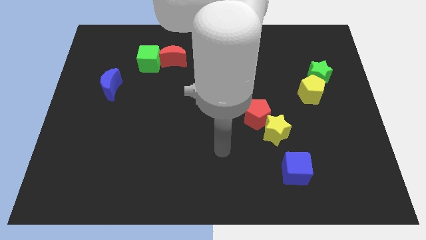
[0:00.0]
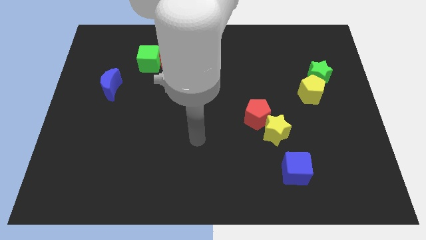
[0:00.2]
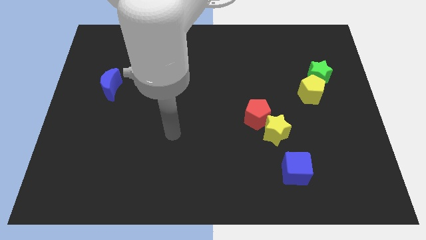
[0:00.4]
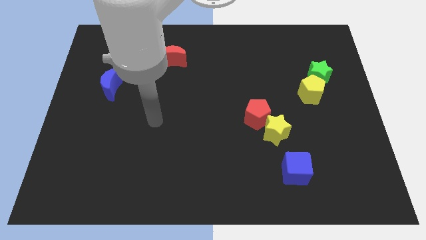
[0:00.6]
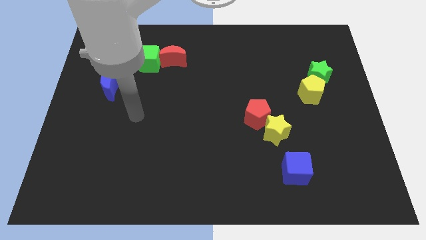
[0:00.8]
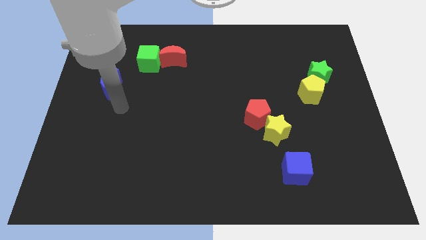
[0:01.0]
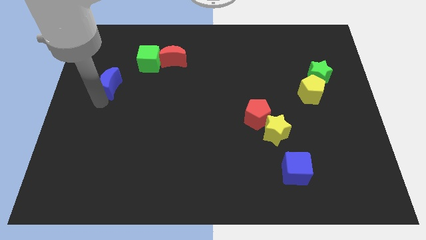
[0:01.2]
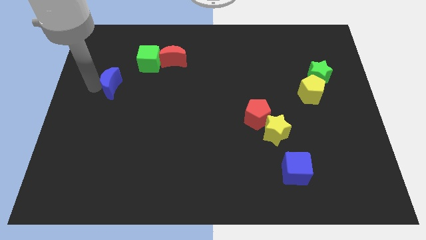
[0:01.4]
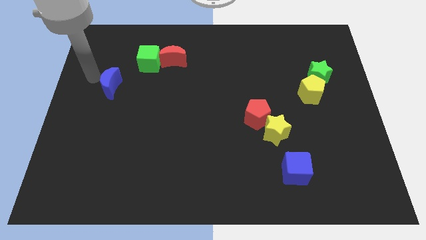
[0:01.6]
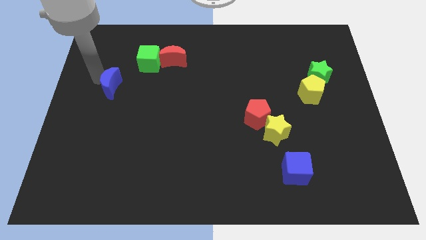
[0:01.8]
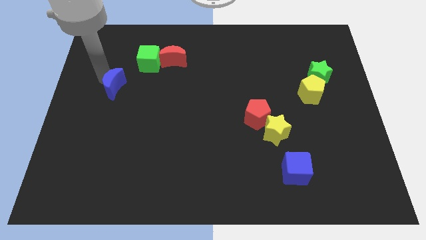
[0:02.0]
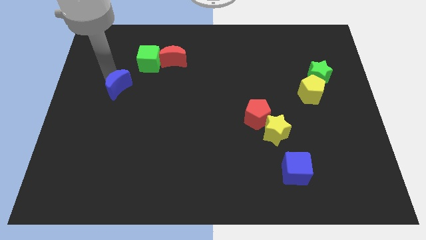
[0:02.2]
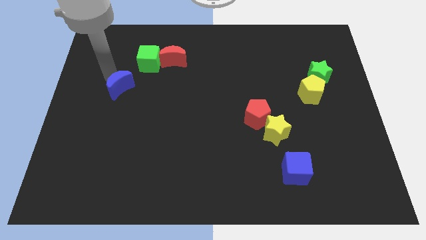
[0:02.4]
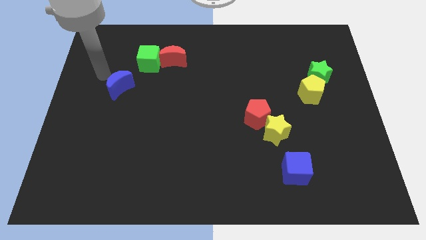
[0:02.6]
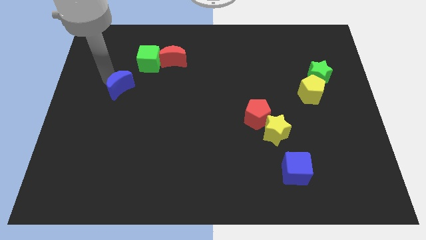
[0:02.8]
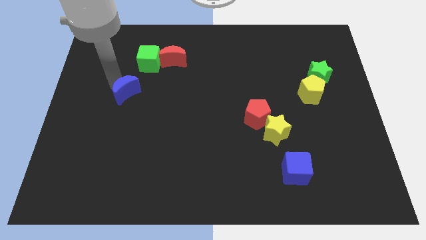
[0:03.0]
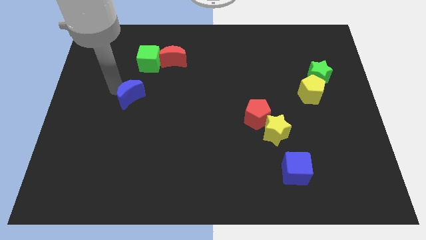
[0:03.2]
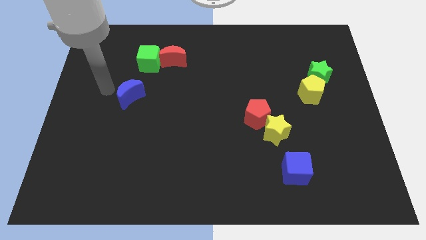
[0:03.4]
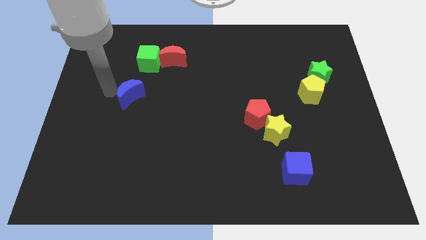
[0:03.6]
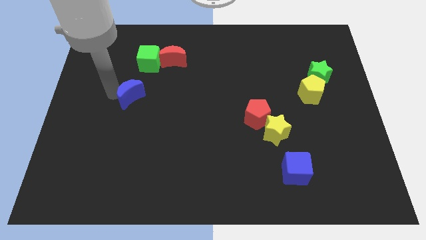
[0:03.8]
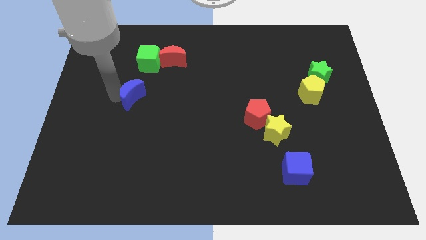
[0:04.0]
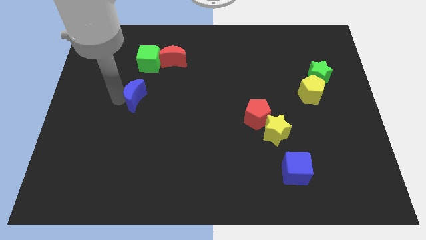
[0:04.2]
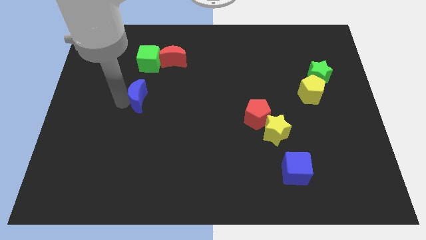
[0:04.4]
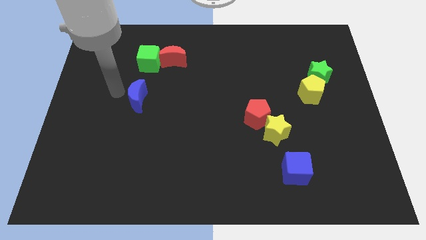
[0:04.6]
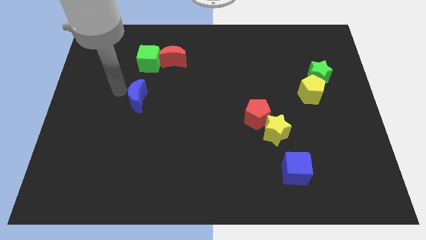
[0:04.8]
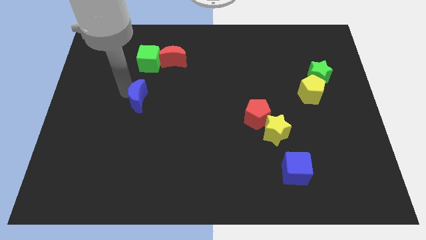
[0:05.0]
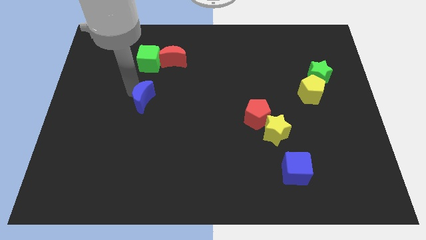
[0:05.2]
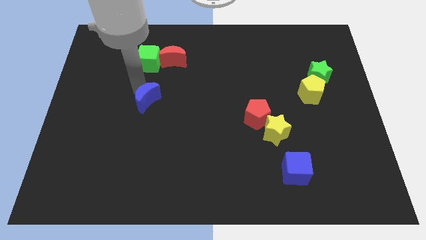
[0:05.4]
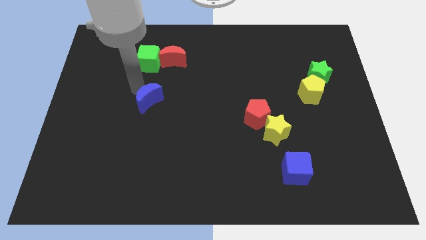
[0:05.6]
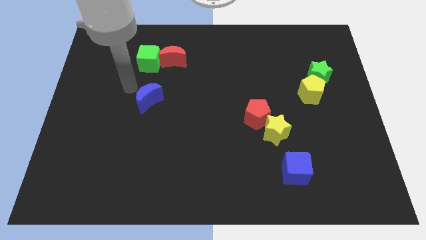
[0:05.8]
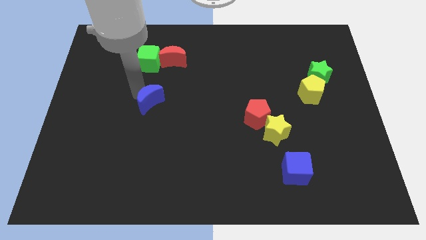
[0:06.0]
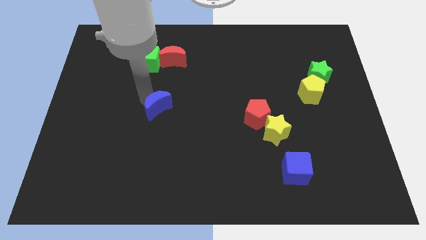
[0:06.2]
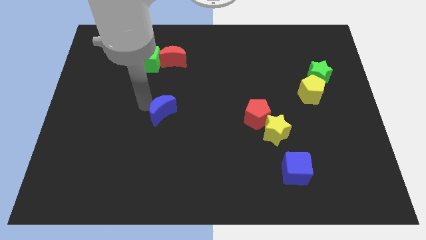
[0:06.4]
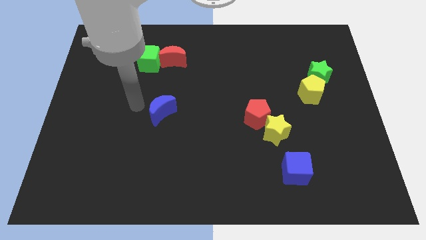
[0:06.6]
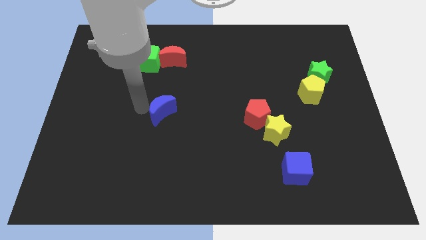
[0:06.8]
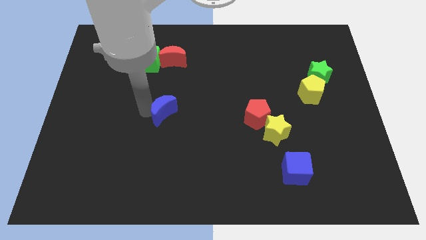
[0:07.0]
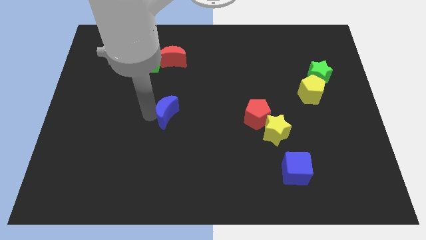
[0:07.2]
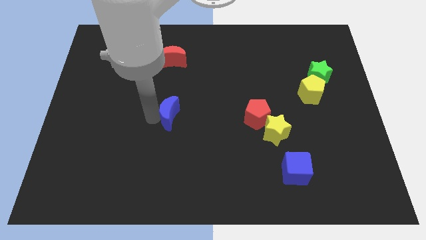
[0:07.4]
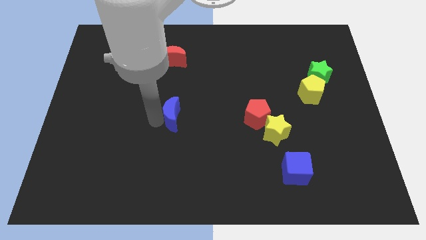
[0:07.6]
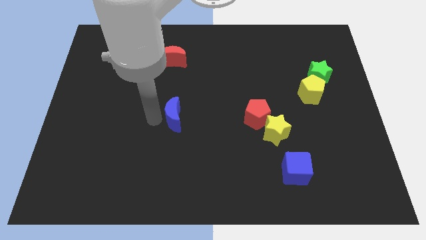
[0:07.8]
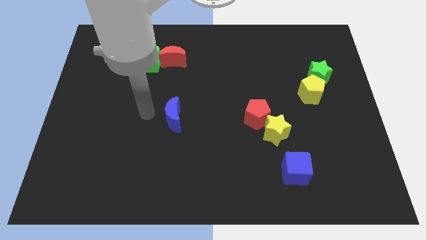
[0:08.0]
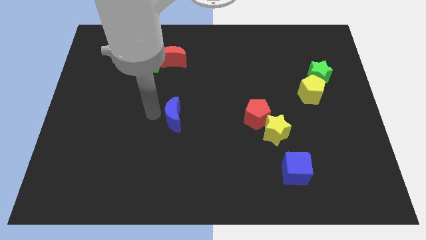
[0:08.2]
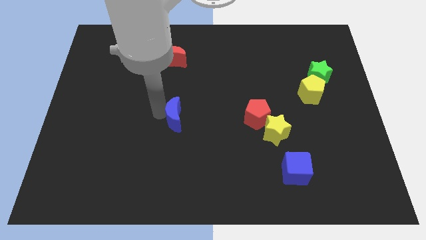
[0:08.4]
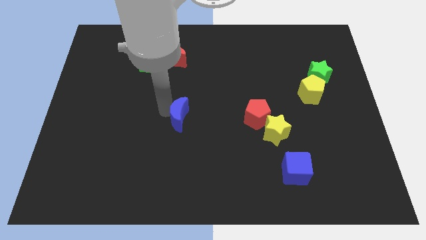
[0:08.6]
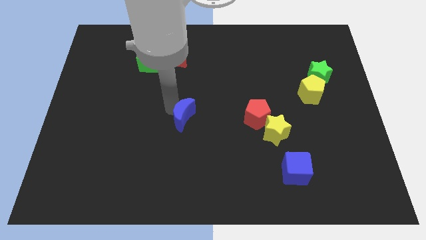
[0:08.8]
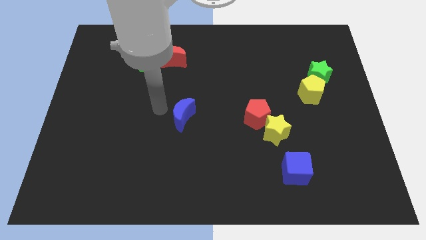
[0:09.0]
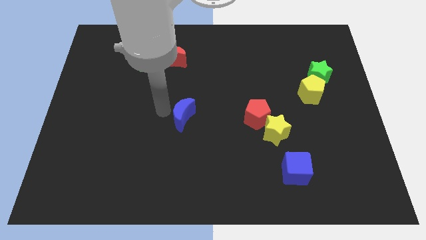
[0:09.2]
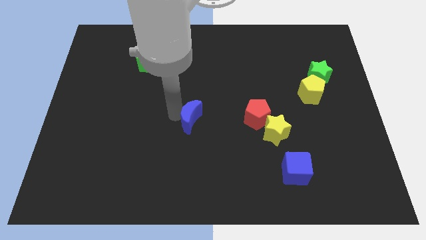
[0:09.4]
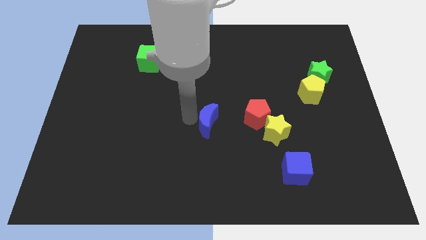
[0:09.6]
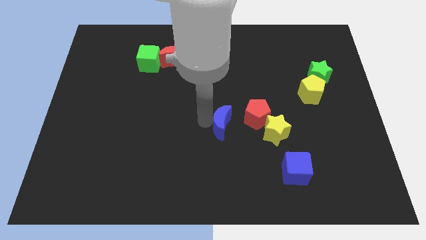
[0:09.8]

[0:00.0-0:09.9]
push the blue moon to the bottom left side of the red pentagon

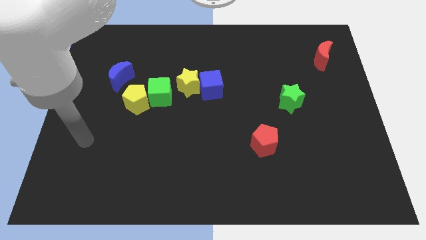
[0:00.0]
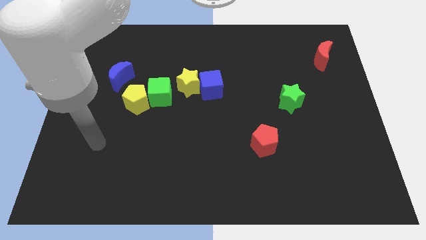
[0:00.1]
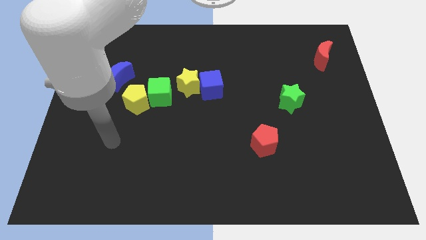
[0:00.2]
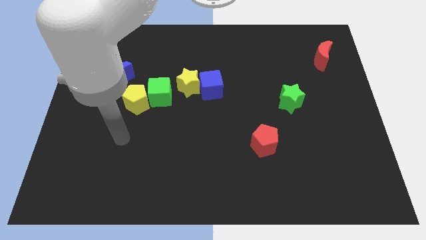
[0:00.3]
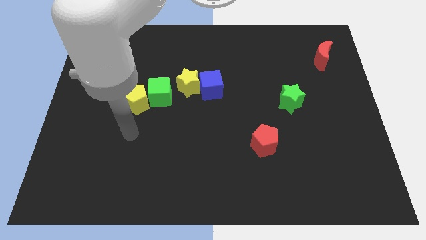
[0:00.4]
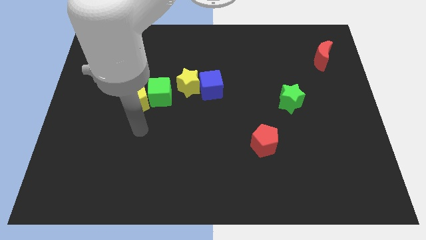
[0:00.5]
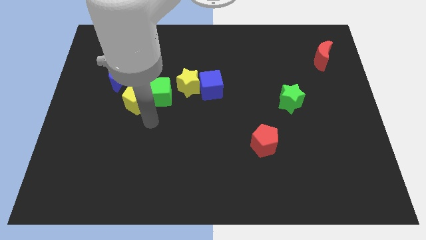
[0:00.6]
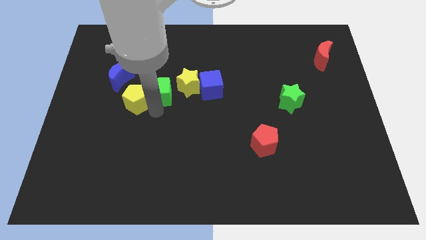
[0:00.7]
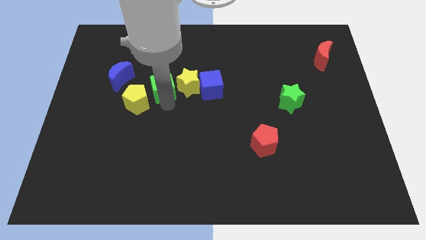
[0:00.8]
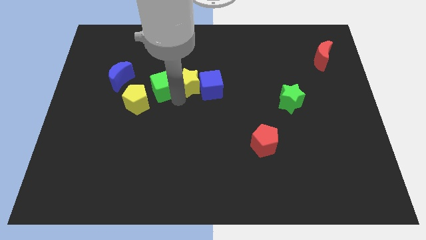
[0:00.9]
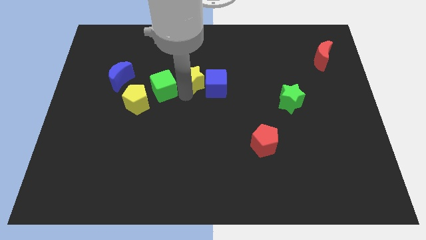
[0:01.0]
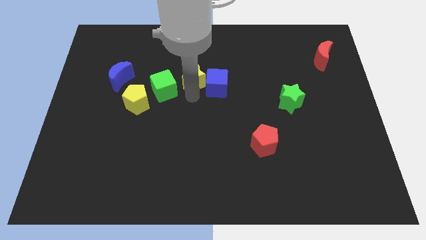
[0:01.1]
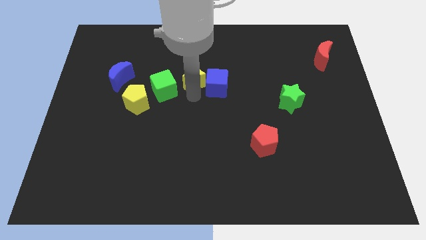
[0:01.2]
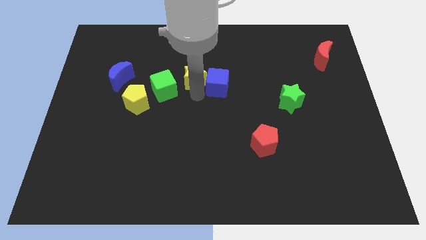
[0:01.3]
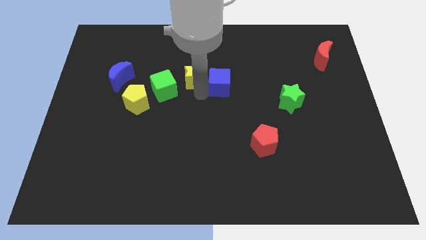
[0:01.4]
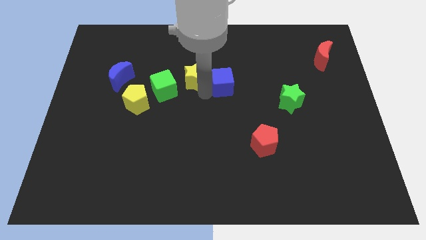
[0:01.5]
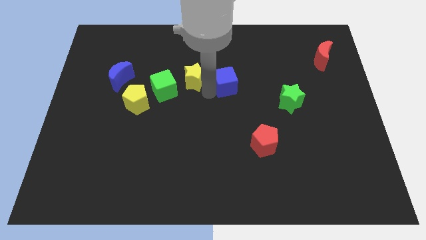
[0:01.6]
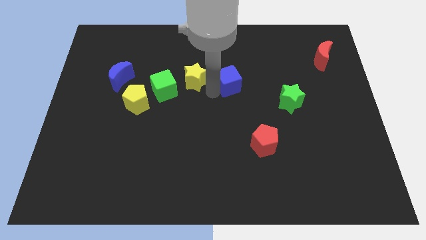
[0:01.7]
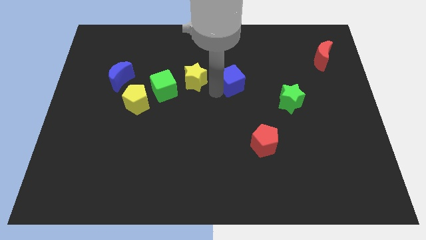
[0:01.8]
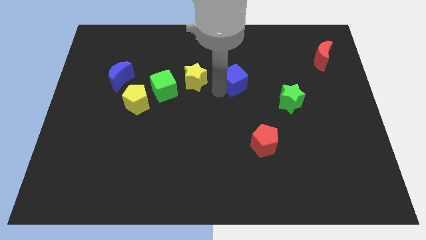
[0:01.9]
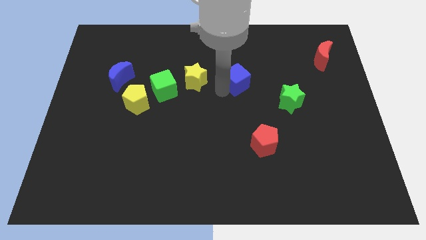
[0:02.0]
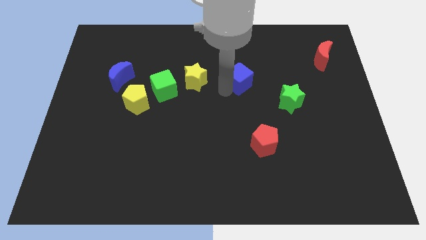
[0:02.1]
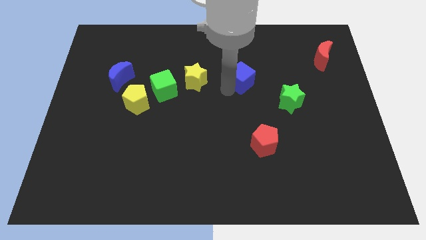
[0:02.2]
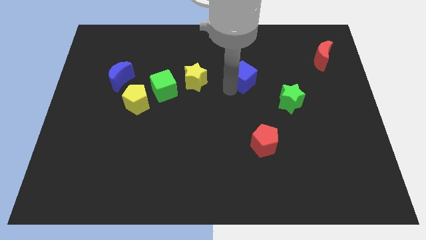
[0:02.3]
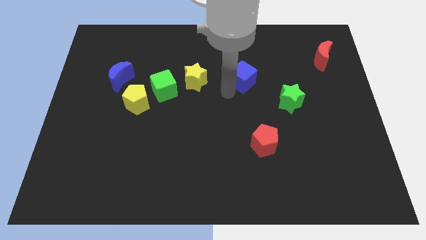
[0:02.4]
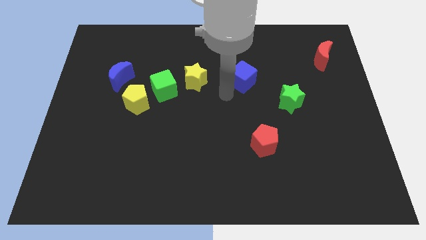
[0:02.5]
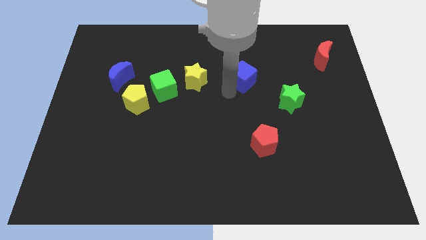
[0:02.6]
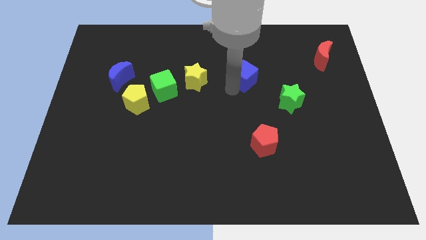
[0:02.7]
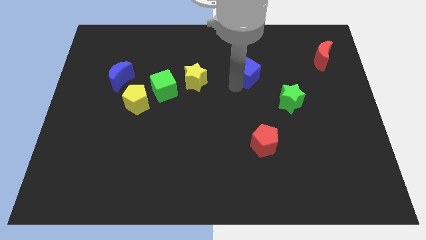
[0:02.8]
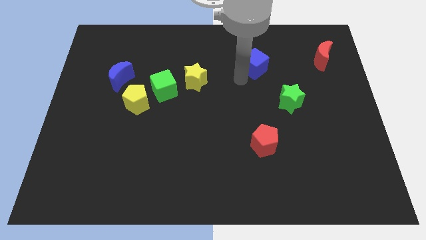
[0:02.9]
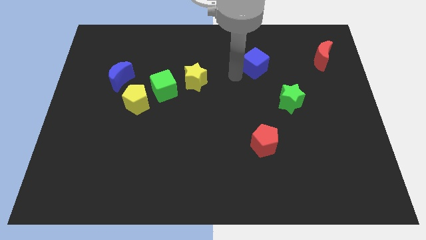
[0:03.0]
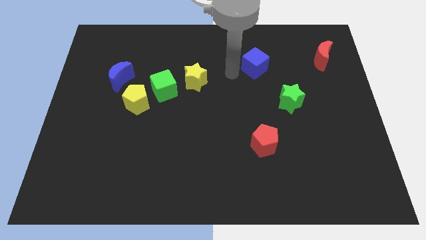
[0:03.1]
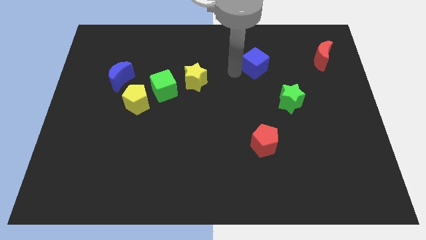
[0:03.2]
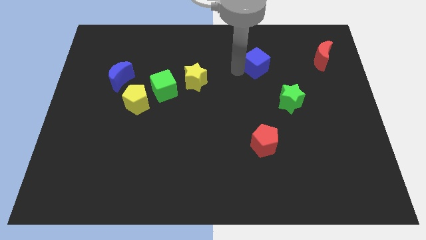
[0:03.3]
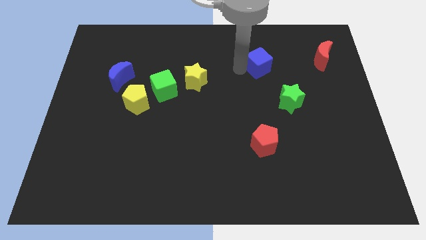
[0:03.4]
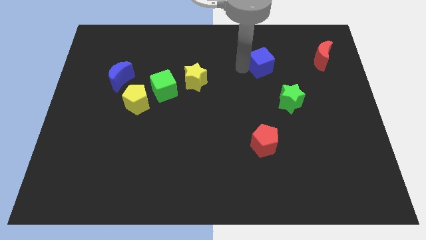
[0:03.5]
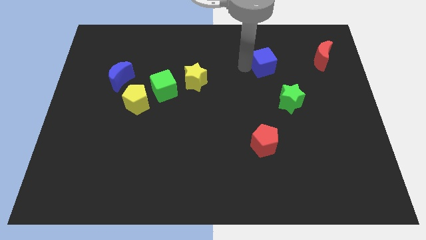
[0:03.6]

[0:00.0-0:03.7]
slide the blue cube to the left side of the red moon
